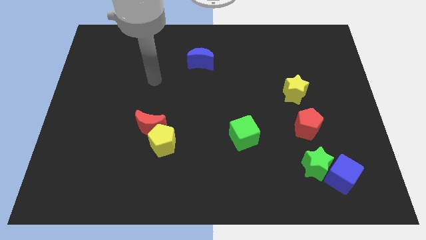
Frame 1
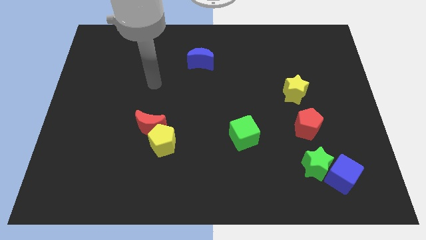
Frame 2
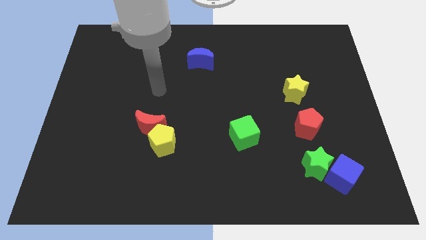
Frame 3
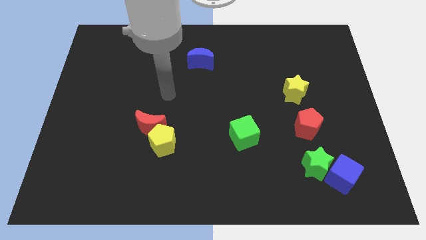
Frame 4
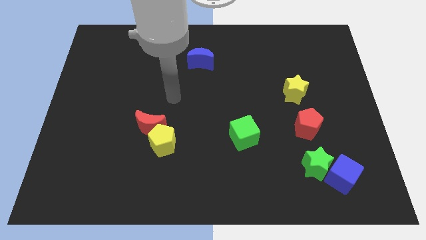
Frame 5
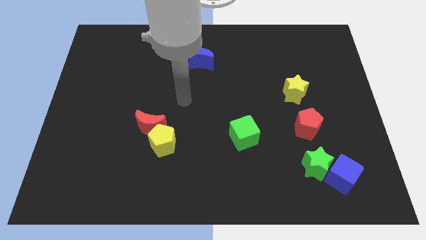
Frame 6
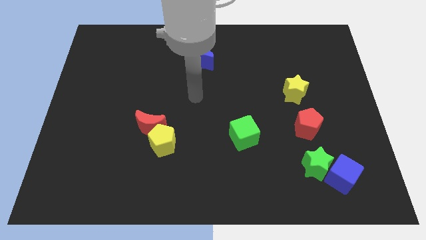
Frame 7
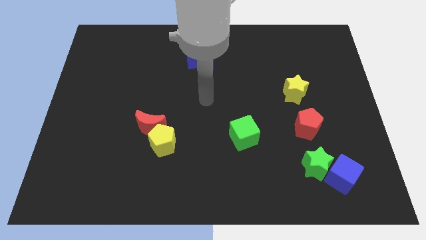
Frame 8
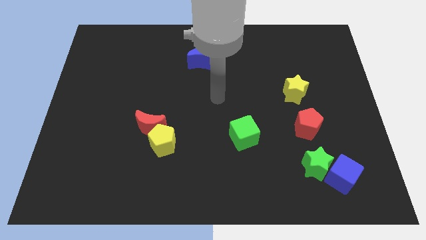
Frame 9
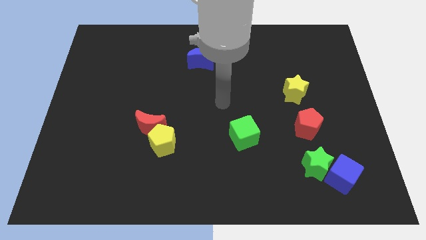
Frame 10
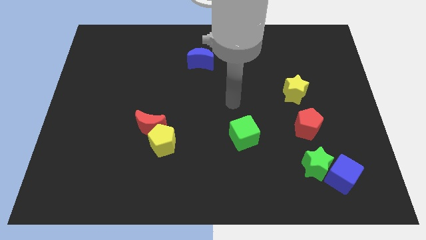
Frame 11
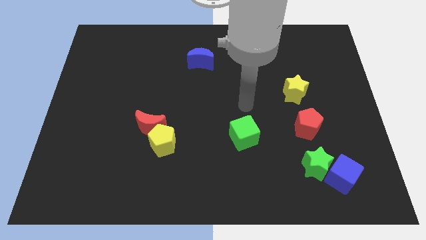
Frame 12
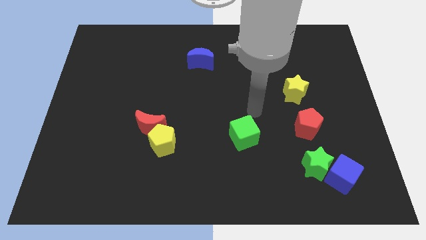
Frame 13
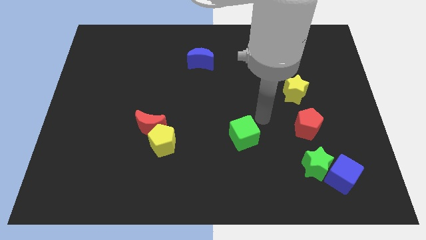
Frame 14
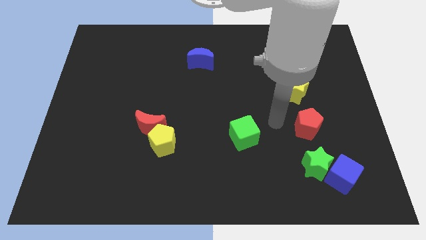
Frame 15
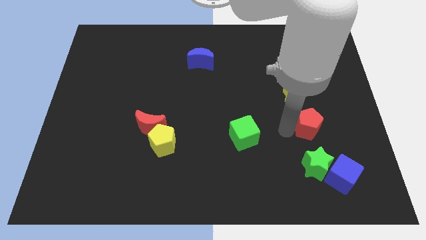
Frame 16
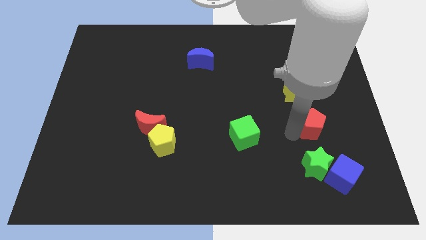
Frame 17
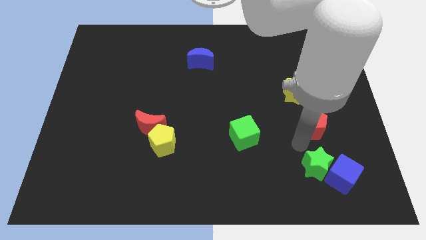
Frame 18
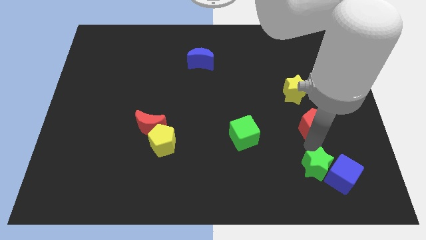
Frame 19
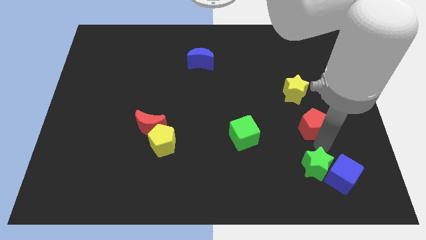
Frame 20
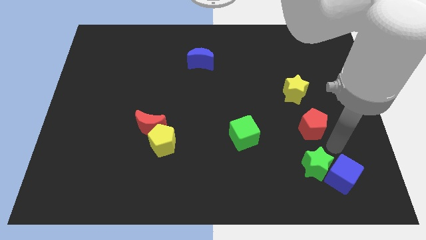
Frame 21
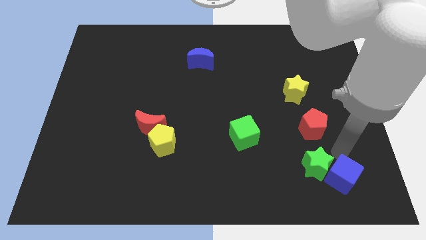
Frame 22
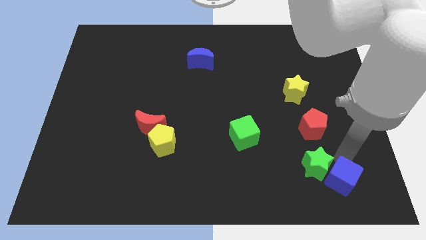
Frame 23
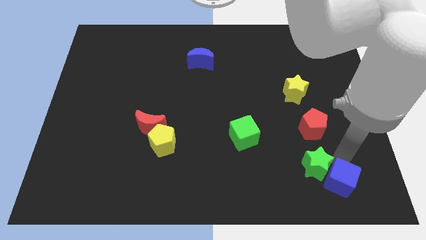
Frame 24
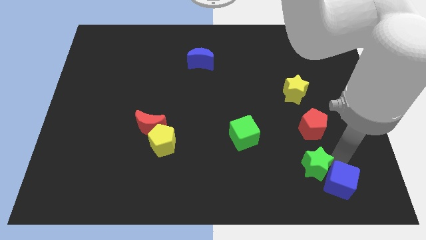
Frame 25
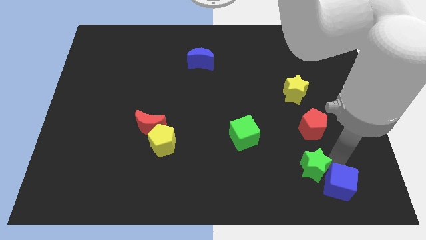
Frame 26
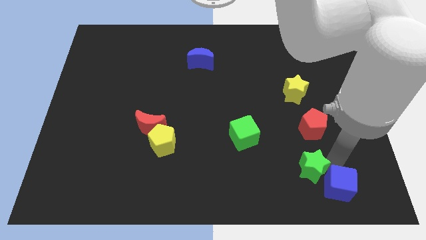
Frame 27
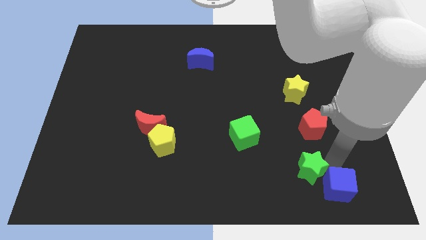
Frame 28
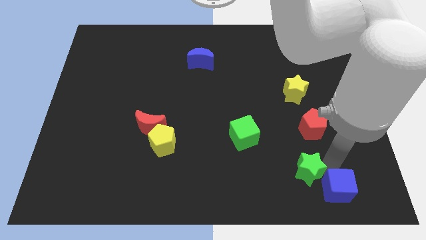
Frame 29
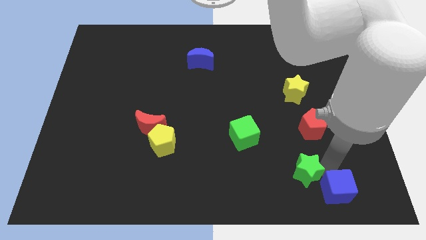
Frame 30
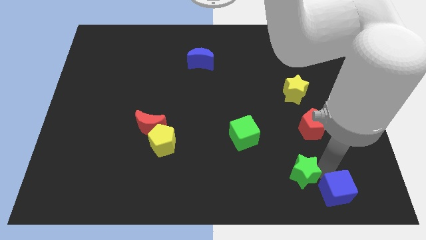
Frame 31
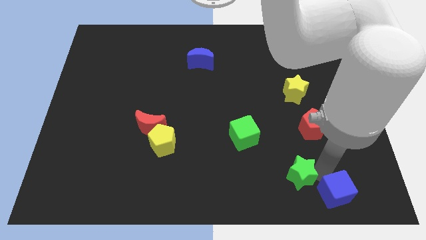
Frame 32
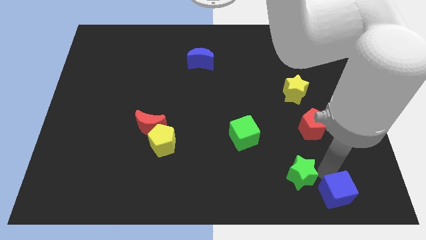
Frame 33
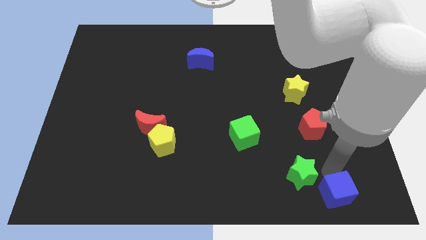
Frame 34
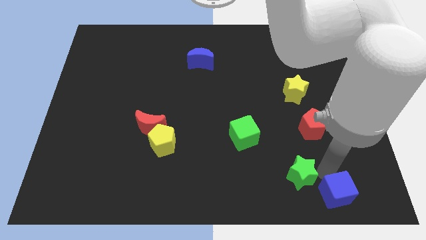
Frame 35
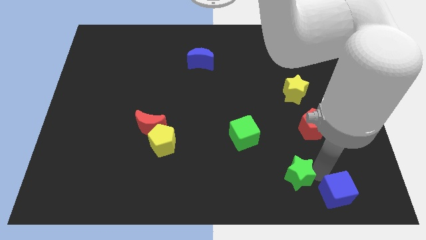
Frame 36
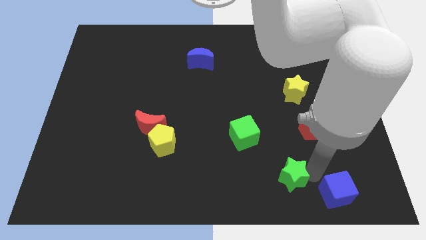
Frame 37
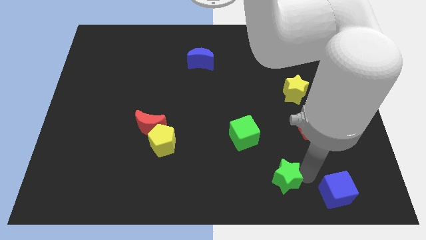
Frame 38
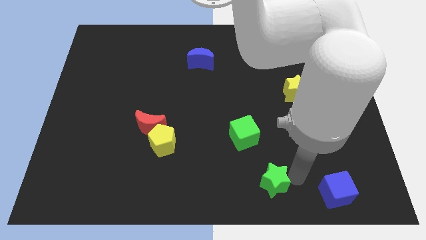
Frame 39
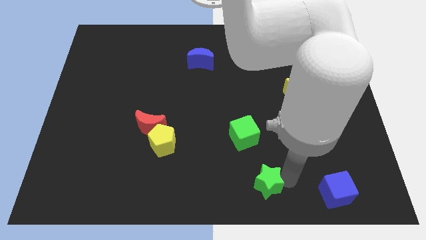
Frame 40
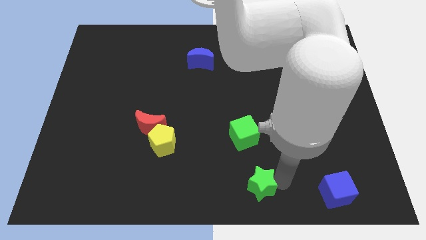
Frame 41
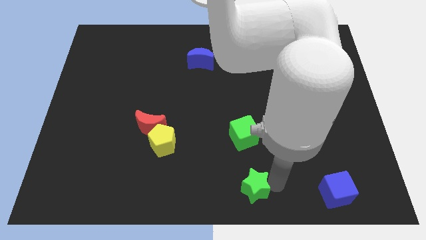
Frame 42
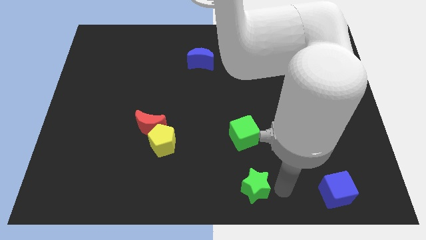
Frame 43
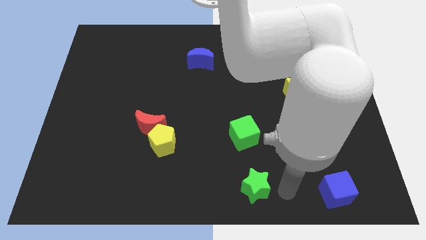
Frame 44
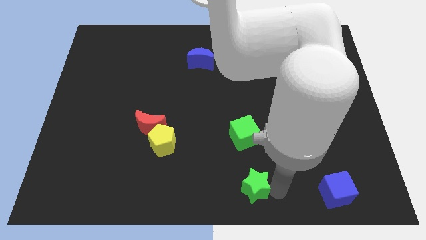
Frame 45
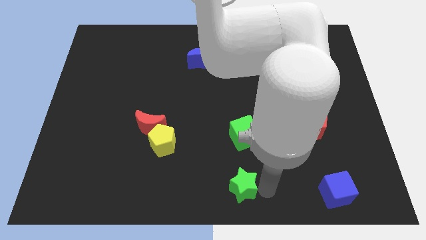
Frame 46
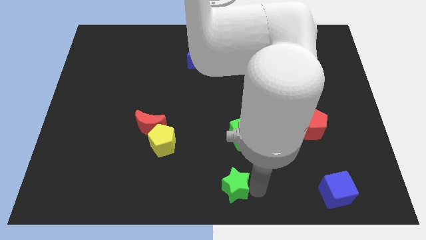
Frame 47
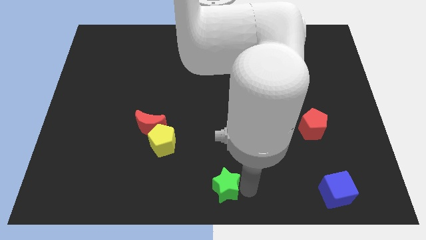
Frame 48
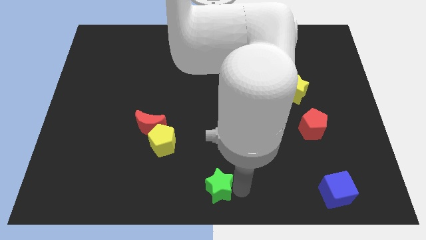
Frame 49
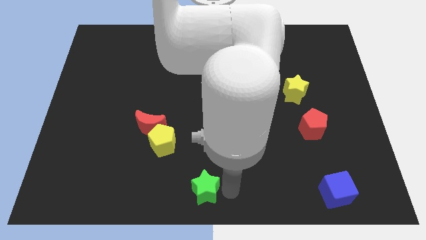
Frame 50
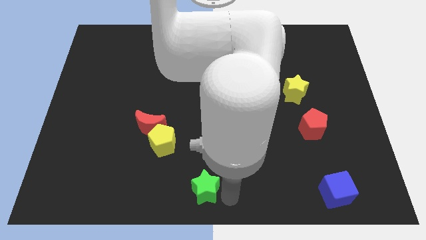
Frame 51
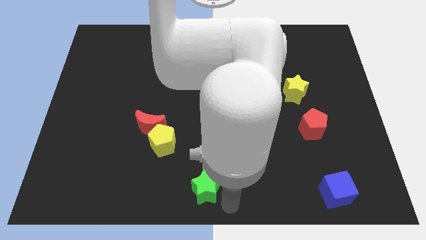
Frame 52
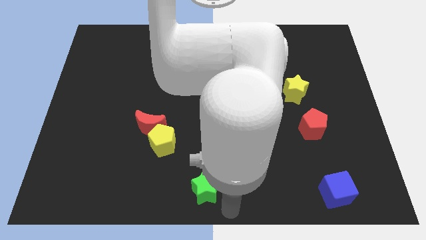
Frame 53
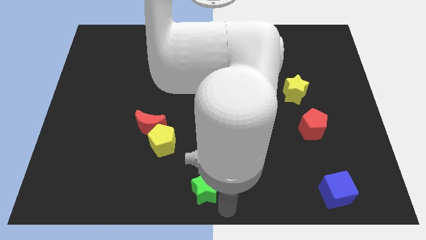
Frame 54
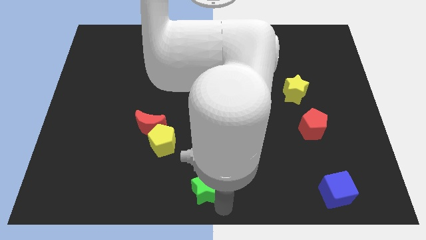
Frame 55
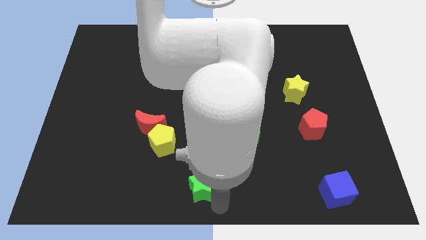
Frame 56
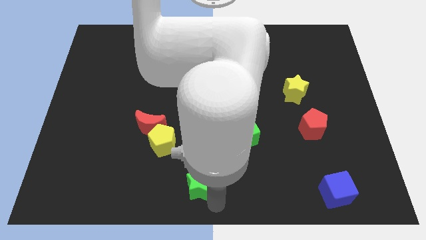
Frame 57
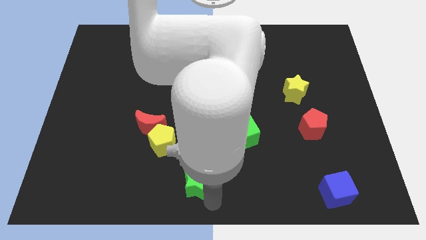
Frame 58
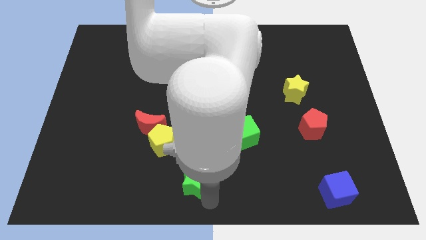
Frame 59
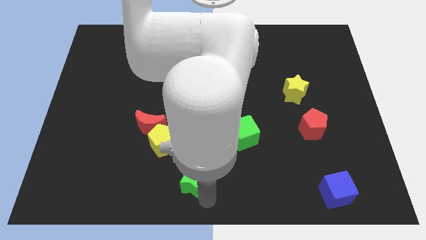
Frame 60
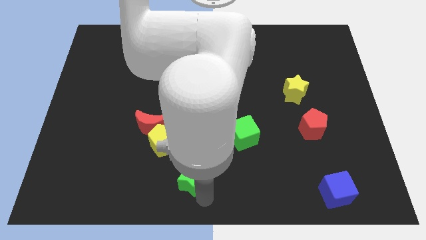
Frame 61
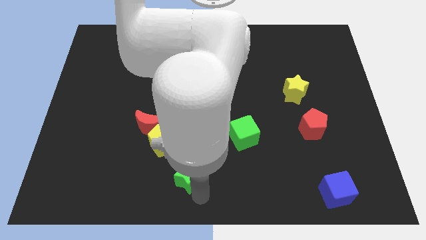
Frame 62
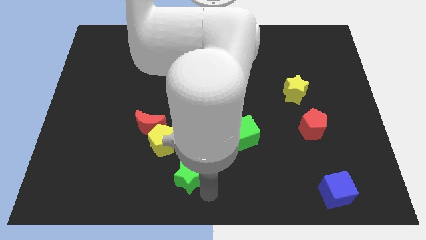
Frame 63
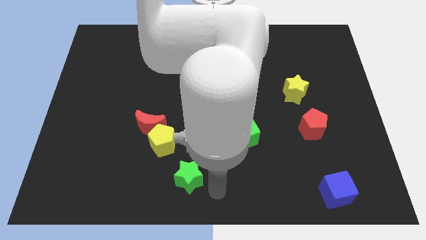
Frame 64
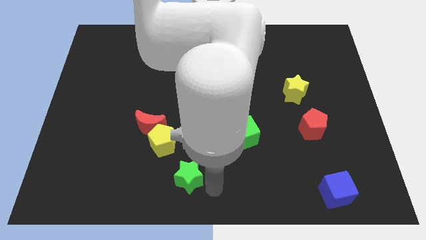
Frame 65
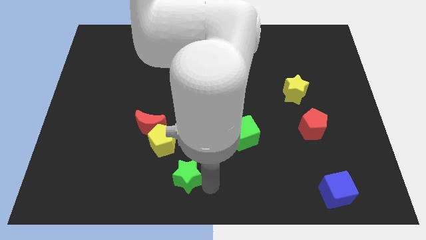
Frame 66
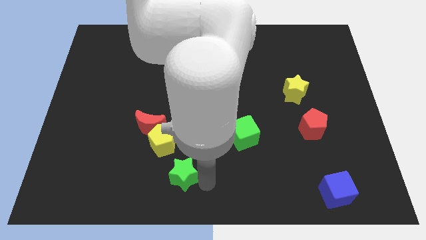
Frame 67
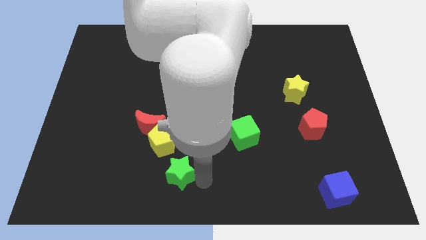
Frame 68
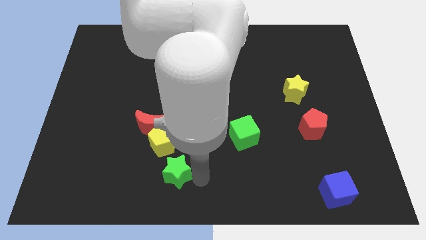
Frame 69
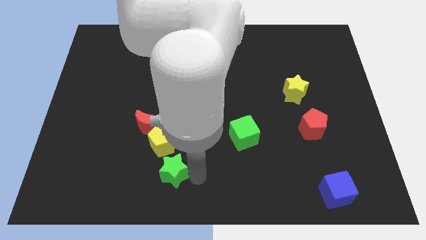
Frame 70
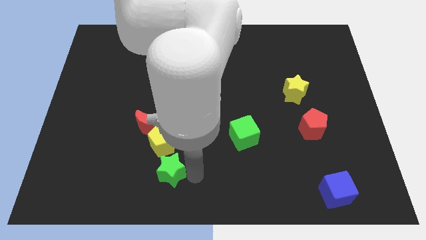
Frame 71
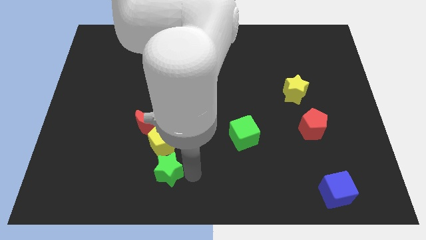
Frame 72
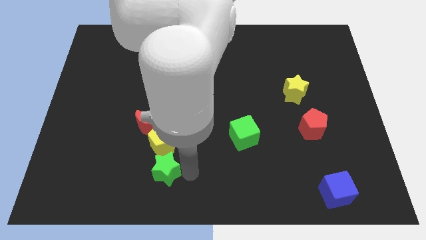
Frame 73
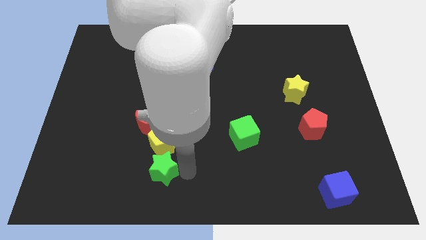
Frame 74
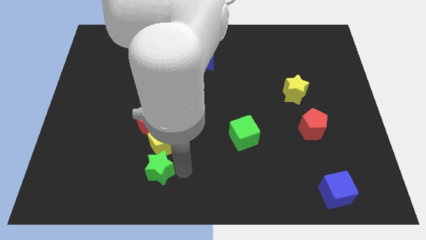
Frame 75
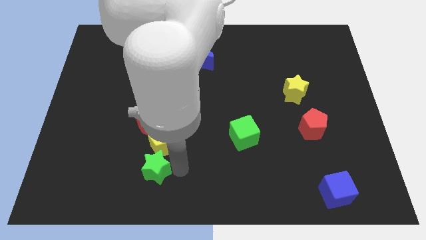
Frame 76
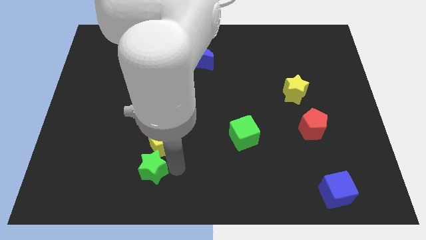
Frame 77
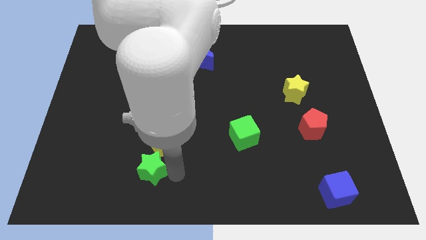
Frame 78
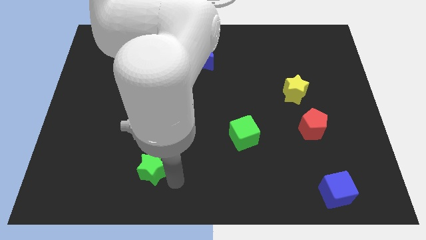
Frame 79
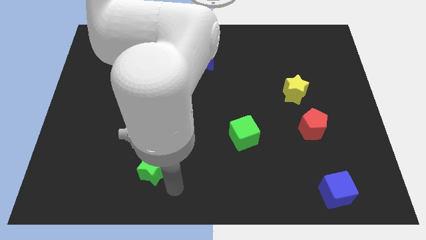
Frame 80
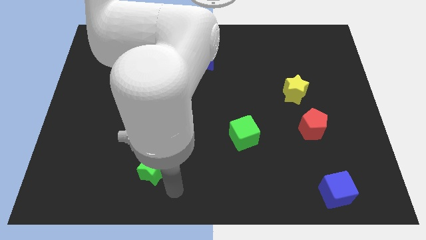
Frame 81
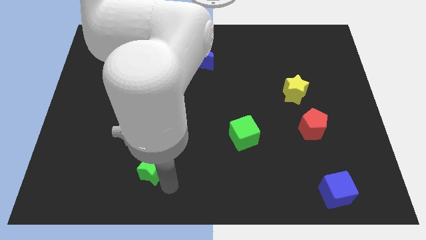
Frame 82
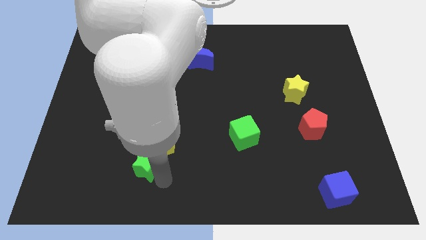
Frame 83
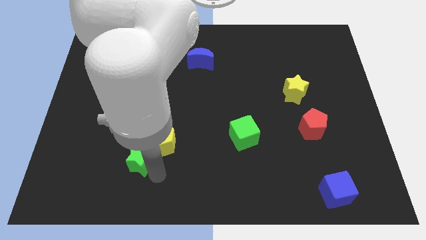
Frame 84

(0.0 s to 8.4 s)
move the green star just left of the yellow pentagon
